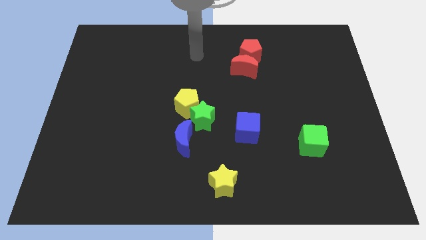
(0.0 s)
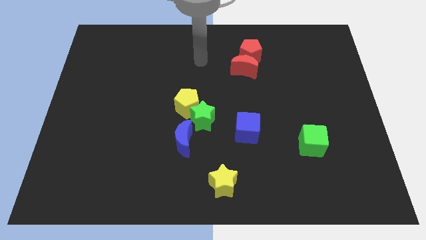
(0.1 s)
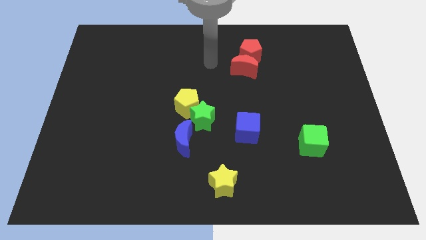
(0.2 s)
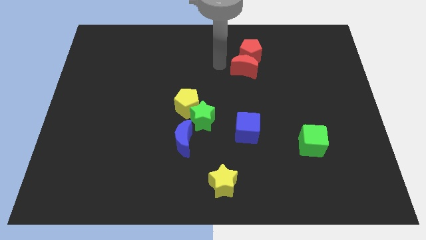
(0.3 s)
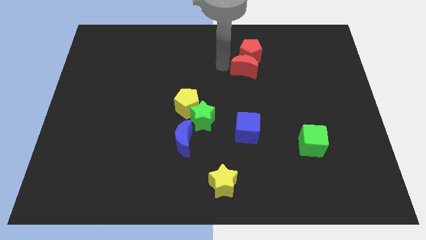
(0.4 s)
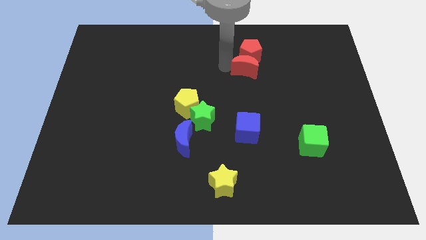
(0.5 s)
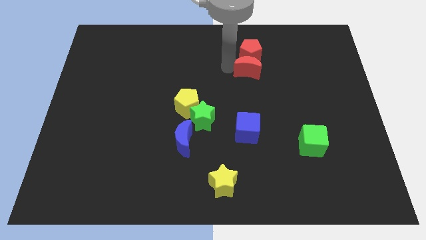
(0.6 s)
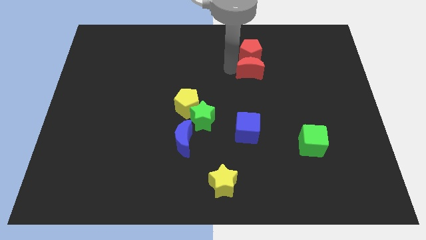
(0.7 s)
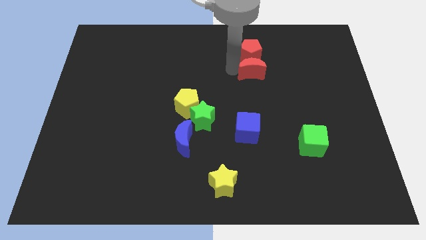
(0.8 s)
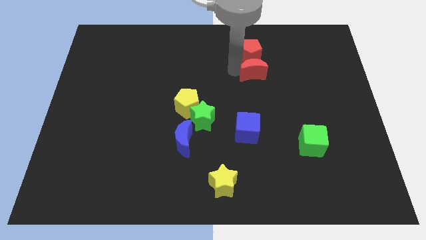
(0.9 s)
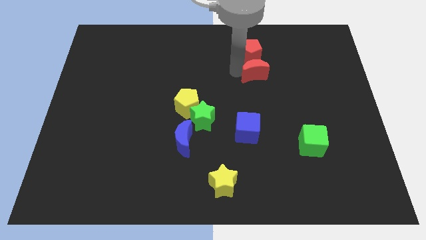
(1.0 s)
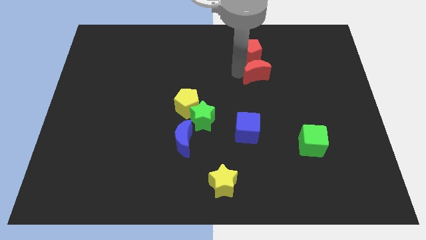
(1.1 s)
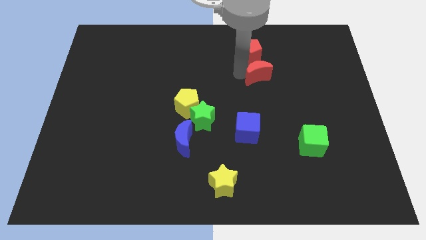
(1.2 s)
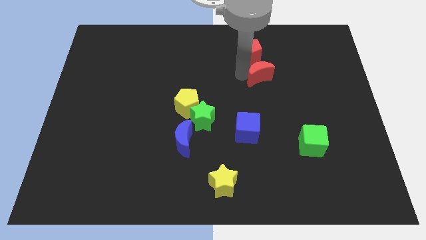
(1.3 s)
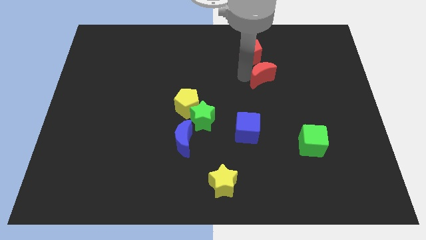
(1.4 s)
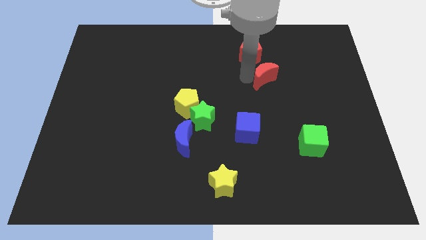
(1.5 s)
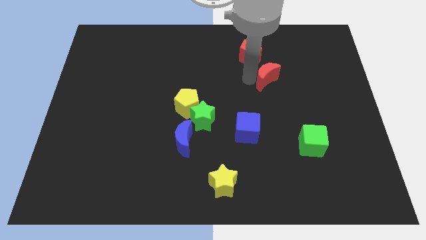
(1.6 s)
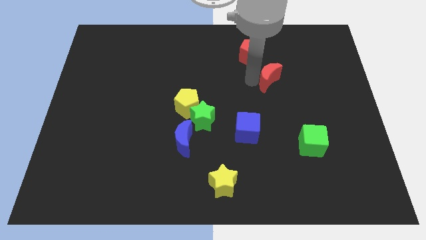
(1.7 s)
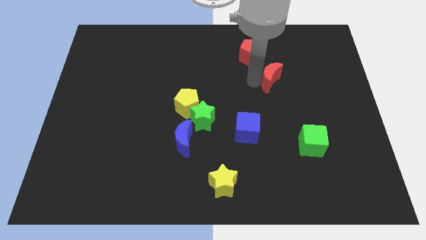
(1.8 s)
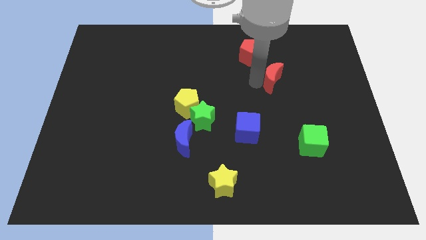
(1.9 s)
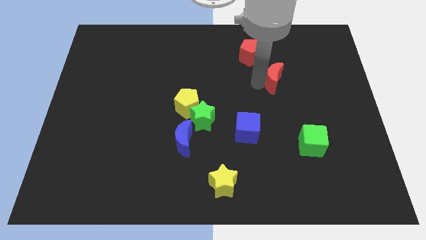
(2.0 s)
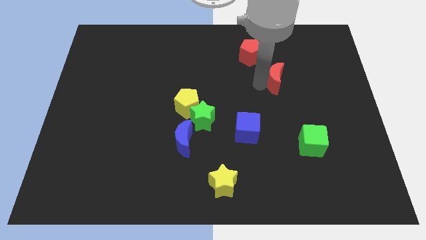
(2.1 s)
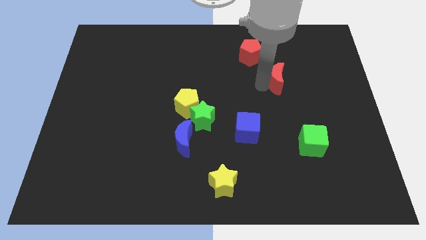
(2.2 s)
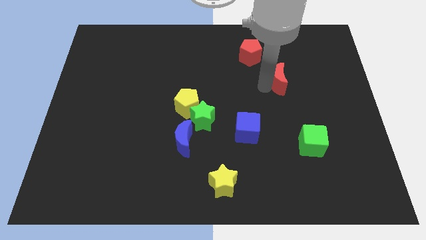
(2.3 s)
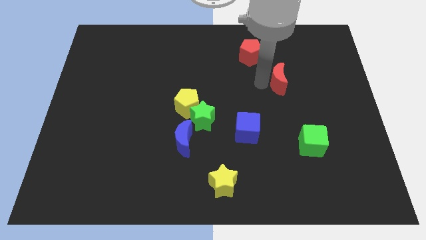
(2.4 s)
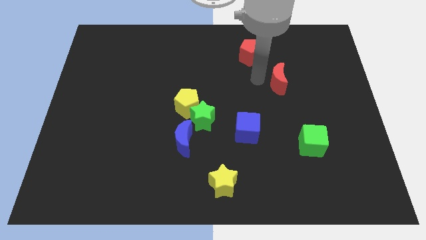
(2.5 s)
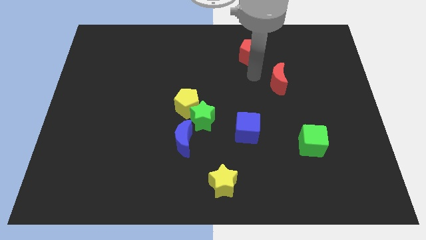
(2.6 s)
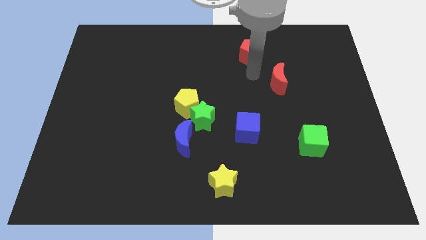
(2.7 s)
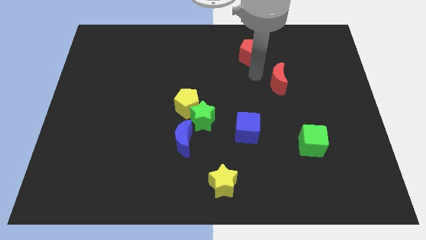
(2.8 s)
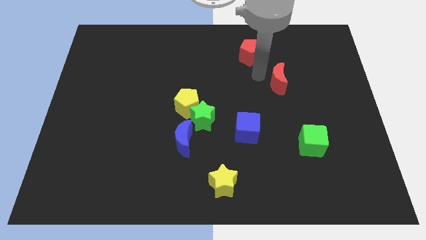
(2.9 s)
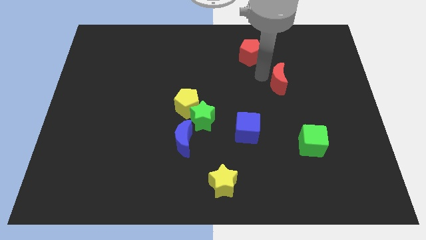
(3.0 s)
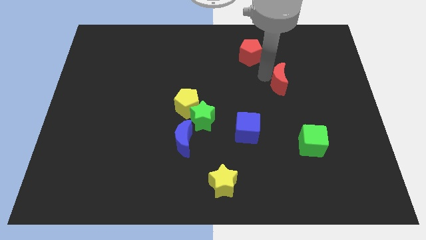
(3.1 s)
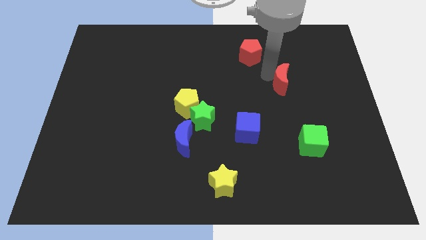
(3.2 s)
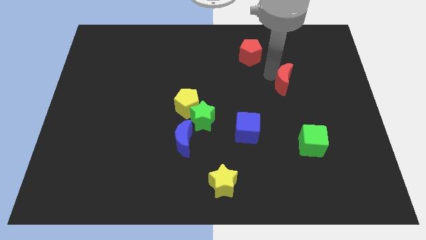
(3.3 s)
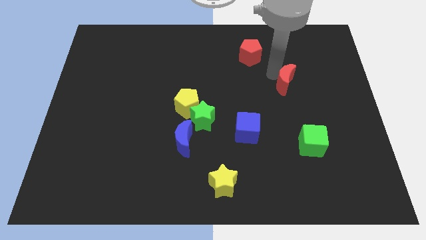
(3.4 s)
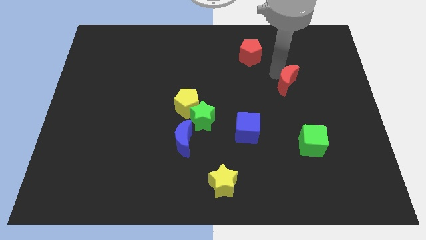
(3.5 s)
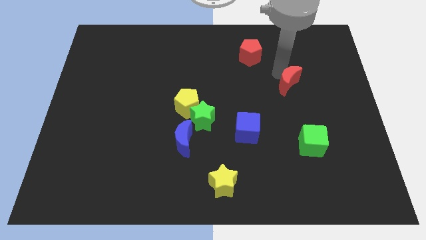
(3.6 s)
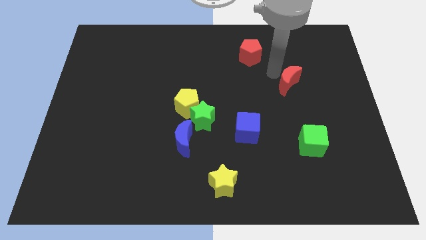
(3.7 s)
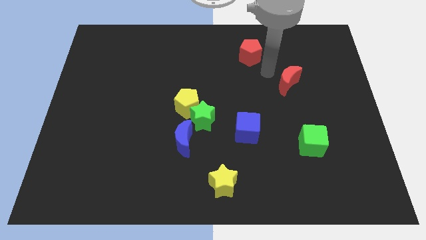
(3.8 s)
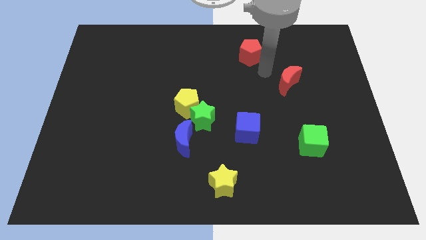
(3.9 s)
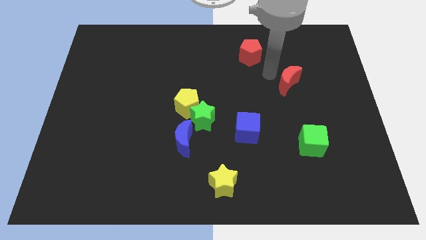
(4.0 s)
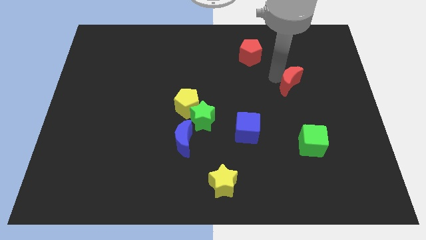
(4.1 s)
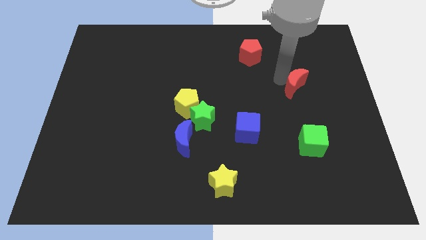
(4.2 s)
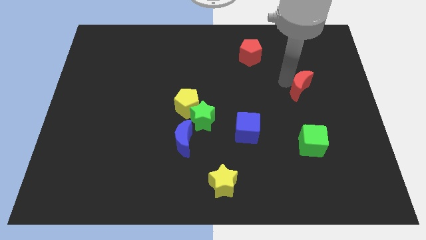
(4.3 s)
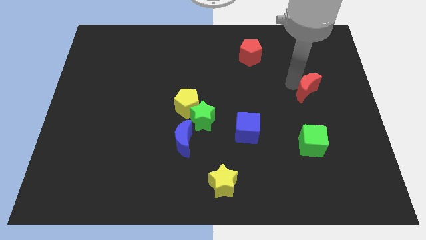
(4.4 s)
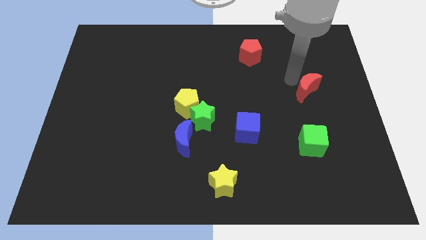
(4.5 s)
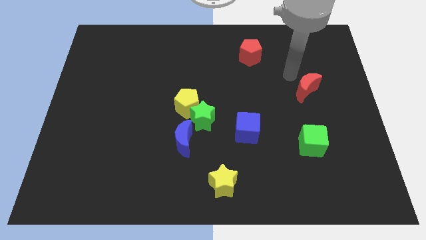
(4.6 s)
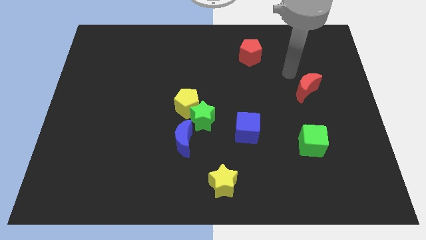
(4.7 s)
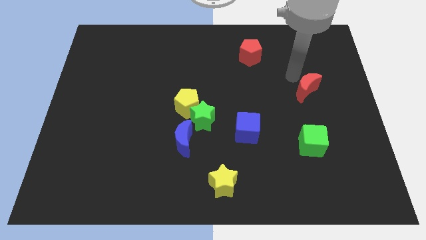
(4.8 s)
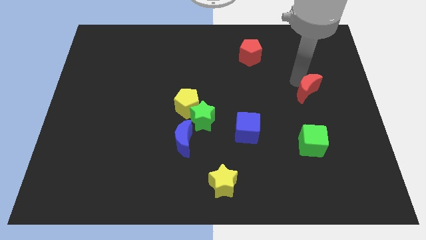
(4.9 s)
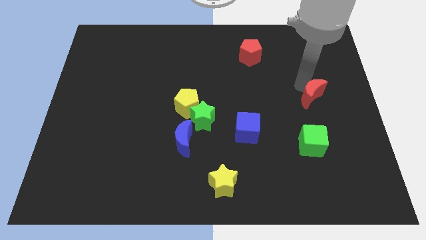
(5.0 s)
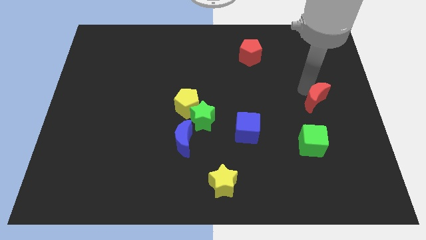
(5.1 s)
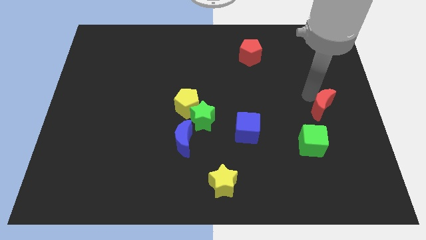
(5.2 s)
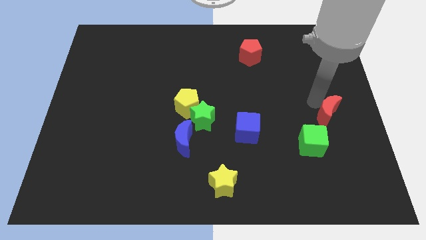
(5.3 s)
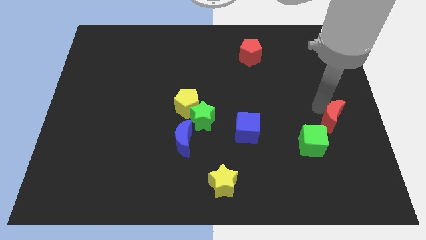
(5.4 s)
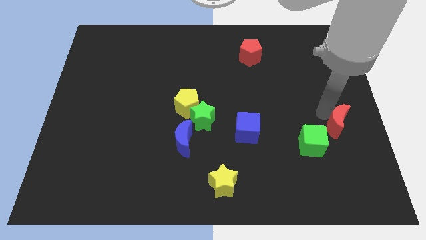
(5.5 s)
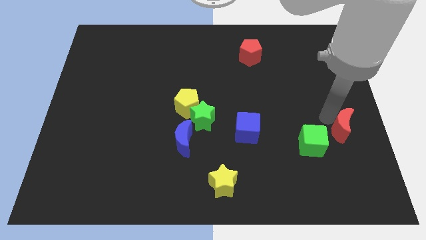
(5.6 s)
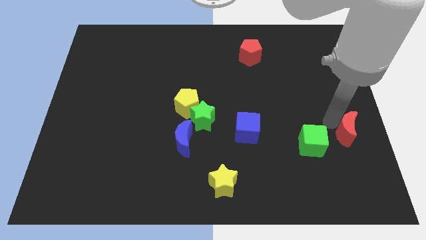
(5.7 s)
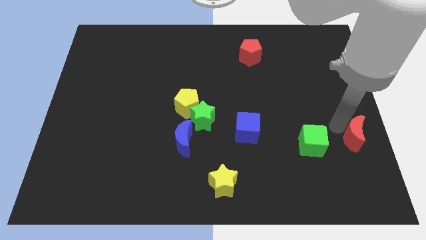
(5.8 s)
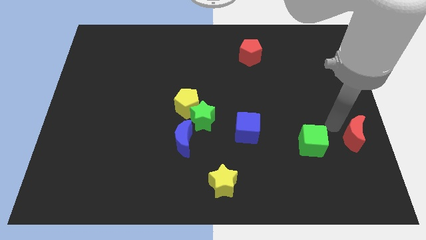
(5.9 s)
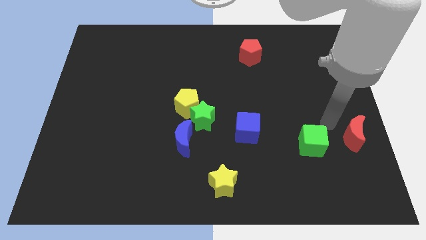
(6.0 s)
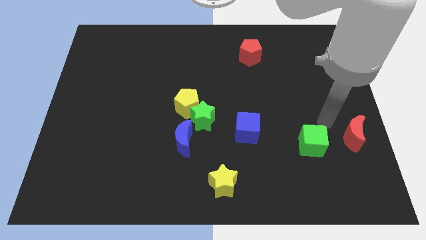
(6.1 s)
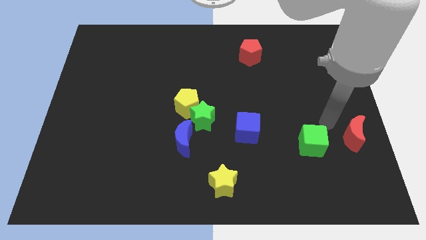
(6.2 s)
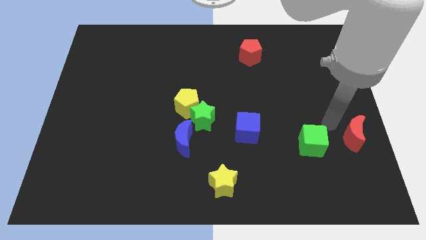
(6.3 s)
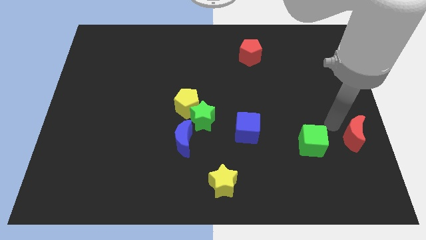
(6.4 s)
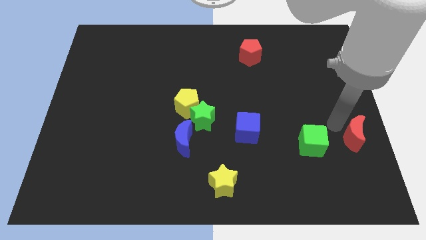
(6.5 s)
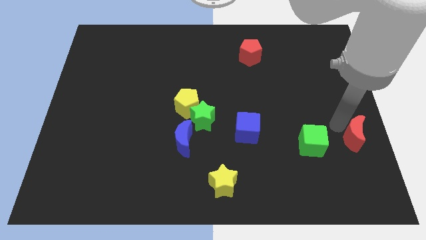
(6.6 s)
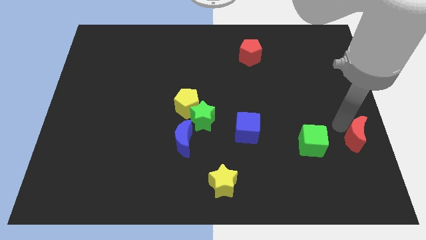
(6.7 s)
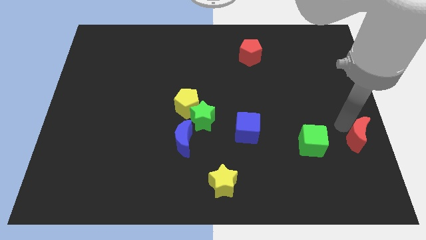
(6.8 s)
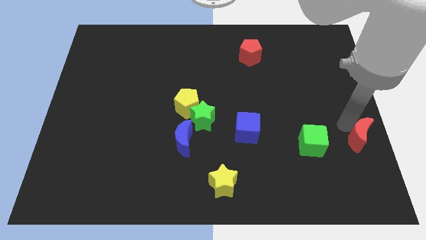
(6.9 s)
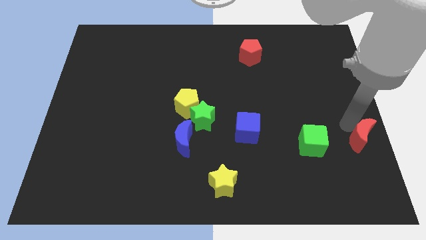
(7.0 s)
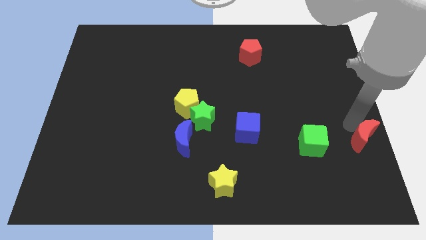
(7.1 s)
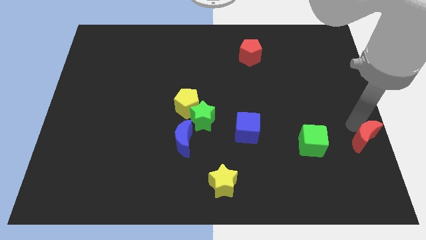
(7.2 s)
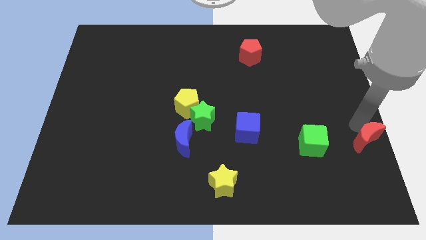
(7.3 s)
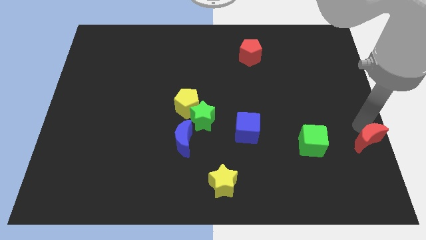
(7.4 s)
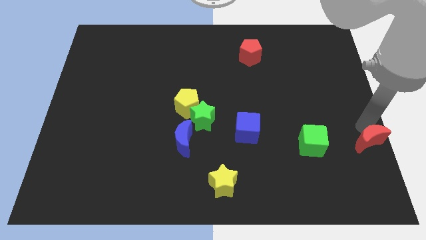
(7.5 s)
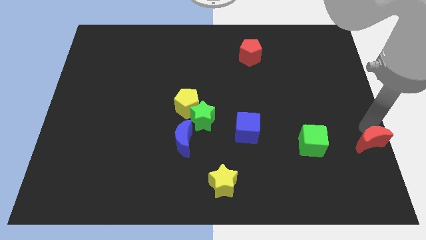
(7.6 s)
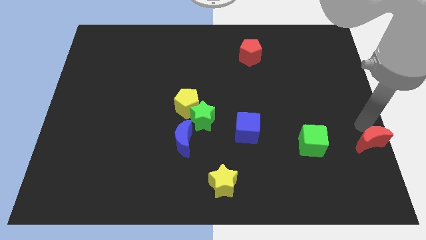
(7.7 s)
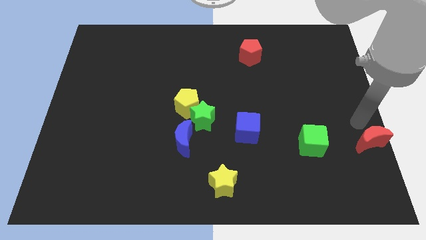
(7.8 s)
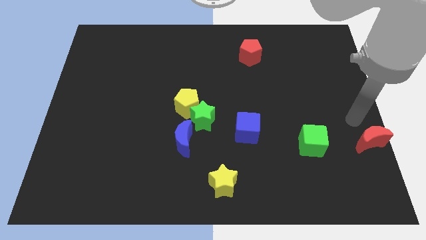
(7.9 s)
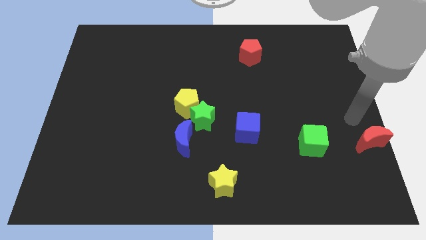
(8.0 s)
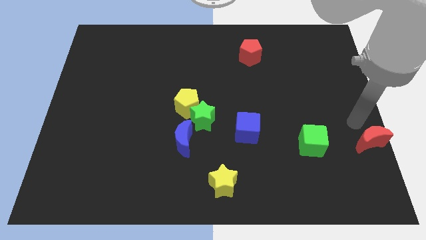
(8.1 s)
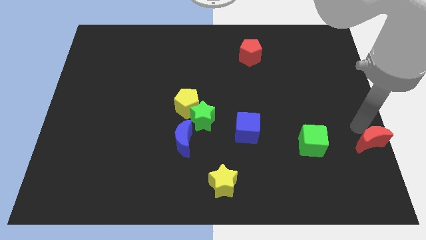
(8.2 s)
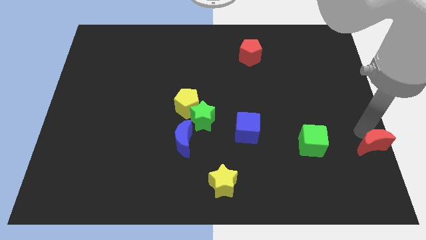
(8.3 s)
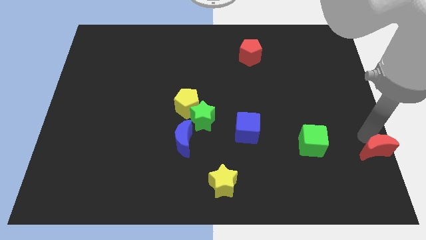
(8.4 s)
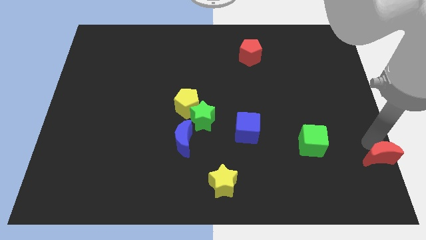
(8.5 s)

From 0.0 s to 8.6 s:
put the red moon to the bottom right of the board
